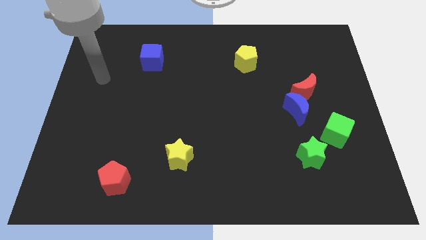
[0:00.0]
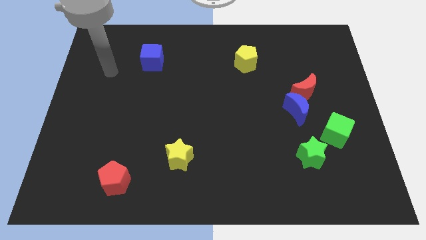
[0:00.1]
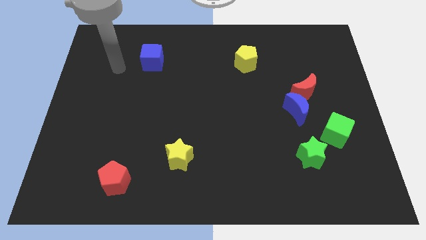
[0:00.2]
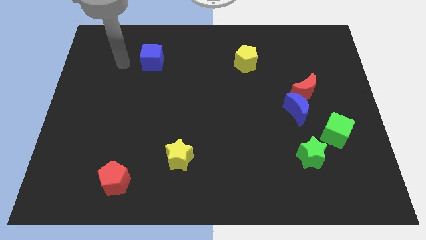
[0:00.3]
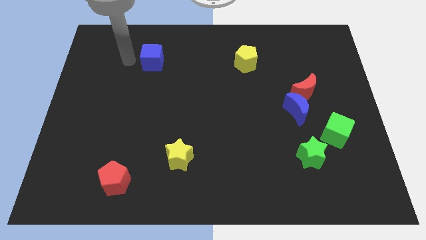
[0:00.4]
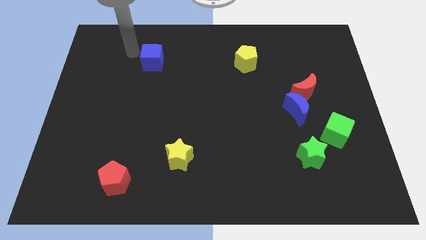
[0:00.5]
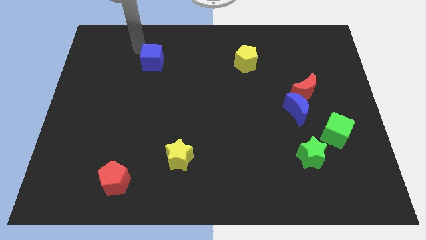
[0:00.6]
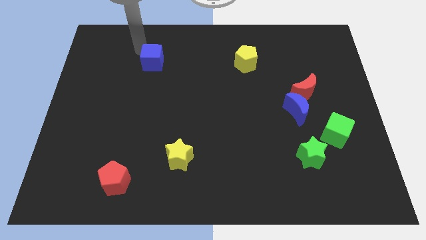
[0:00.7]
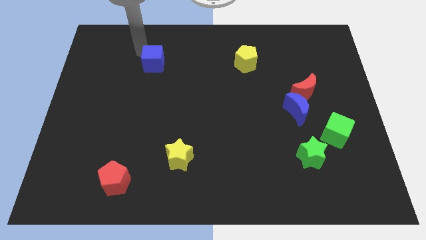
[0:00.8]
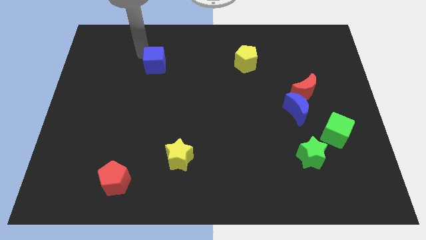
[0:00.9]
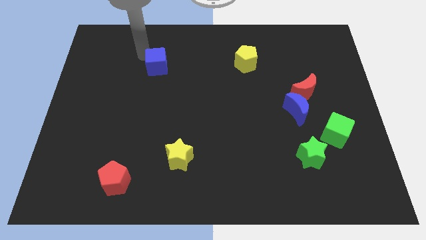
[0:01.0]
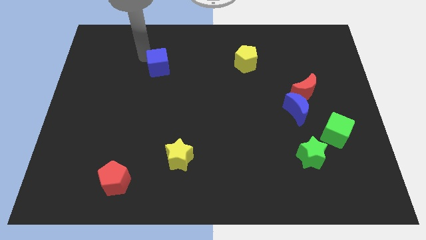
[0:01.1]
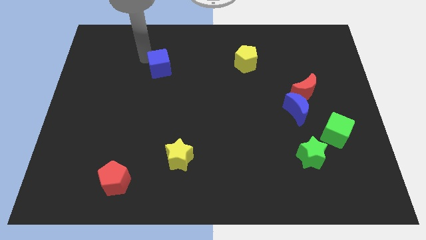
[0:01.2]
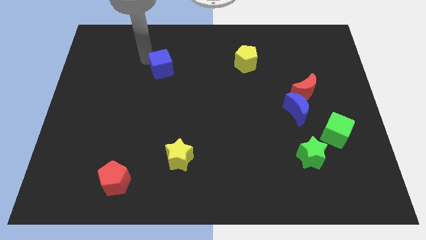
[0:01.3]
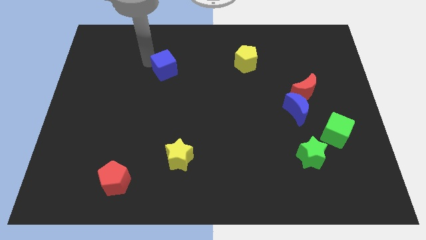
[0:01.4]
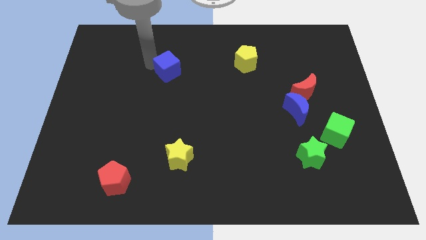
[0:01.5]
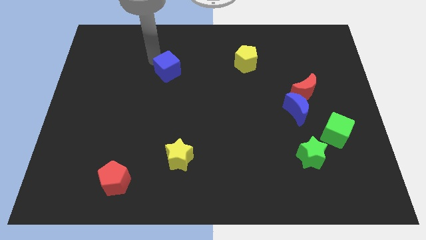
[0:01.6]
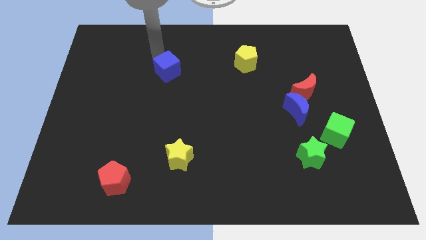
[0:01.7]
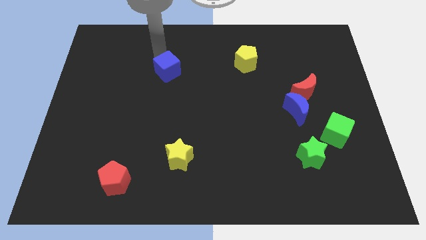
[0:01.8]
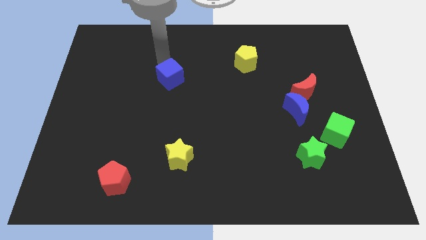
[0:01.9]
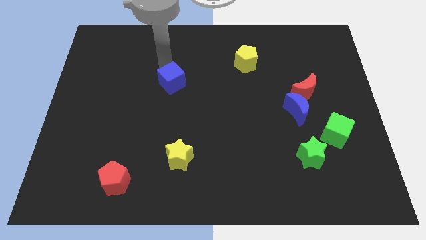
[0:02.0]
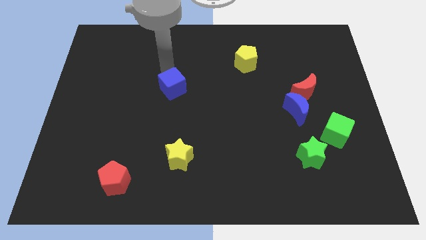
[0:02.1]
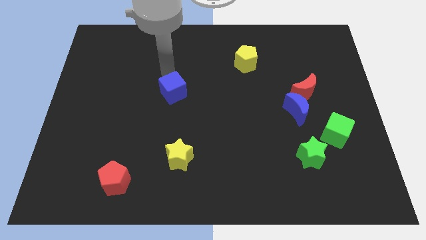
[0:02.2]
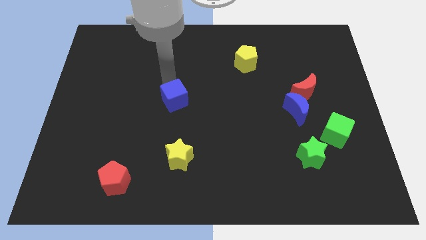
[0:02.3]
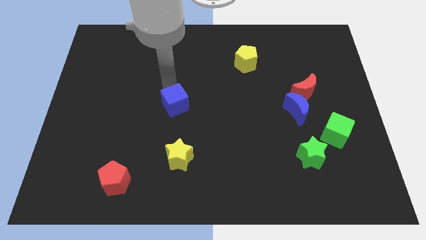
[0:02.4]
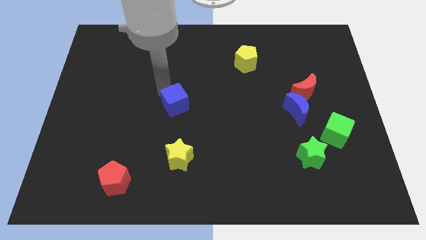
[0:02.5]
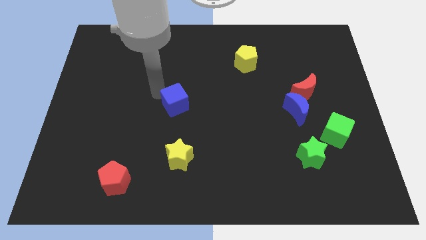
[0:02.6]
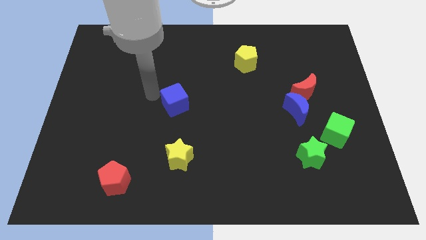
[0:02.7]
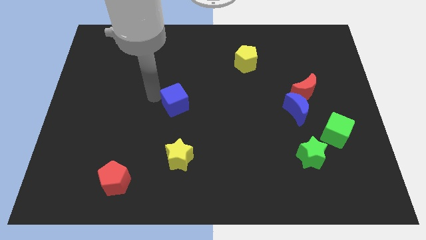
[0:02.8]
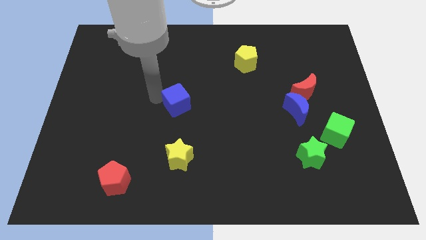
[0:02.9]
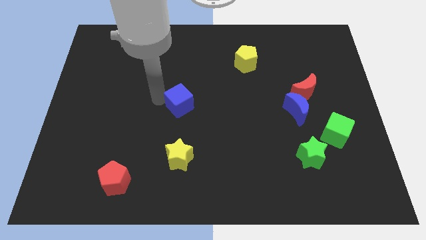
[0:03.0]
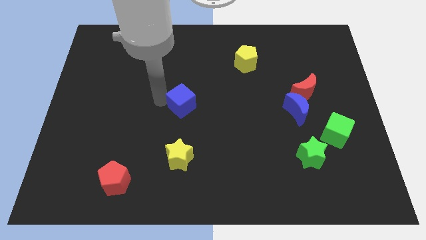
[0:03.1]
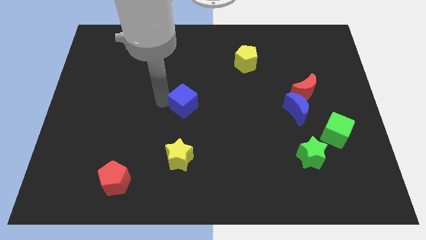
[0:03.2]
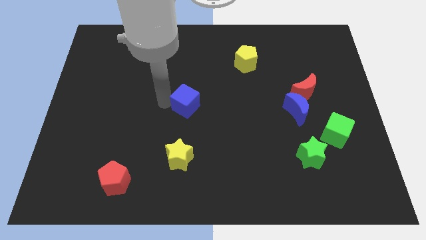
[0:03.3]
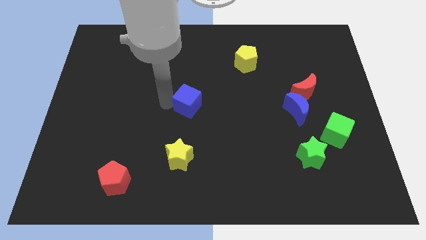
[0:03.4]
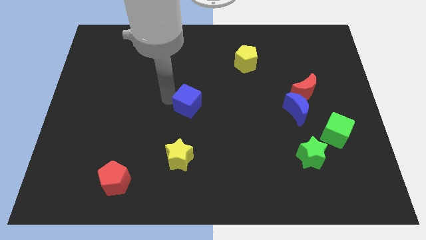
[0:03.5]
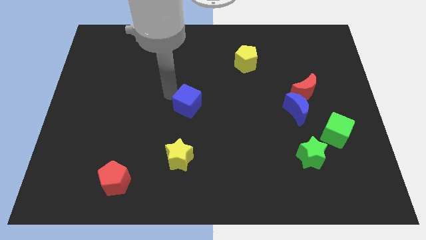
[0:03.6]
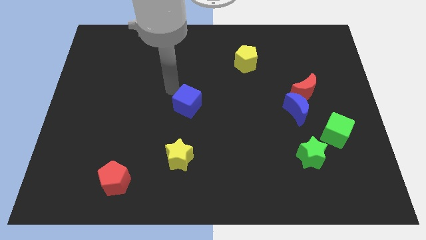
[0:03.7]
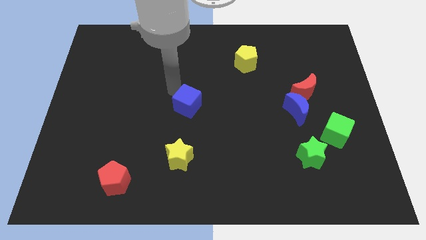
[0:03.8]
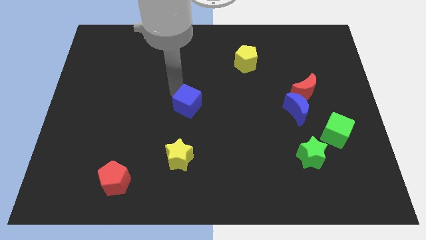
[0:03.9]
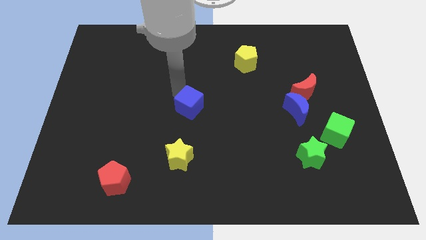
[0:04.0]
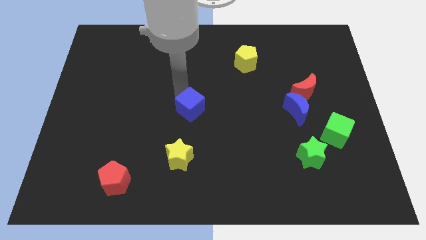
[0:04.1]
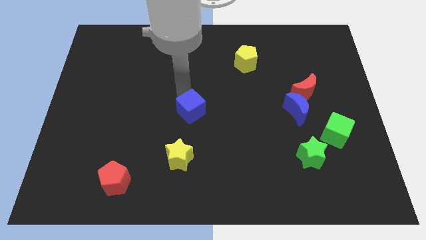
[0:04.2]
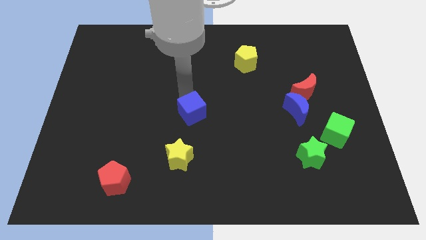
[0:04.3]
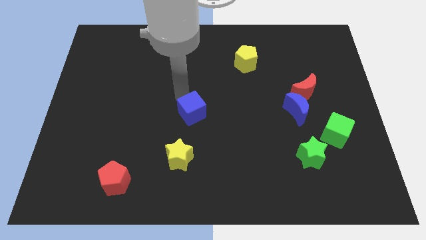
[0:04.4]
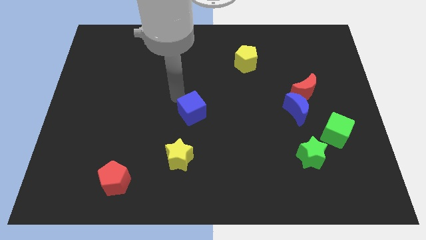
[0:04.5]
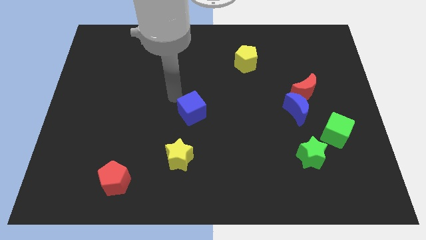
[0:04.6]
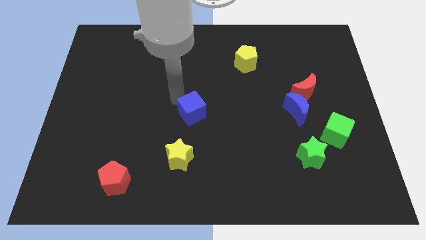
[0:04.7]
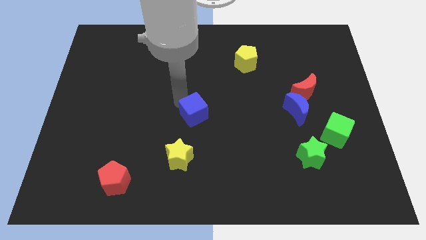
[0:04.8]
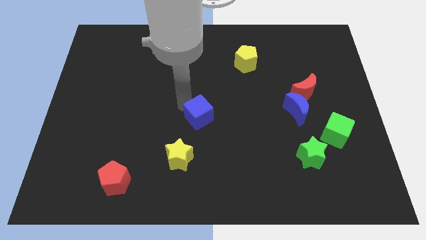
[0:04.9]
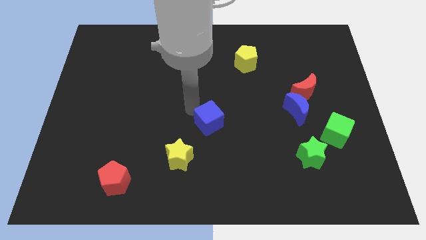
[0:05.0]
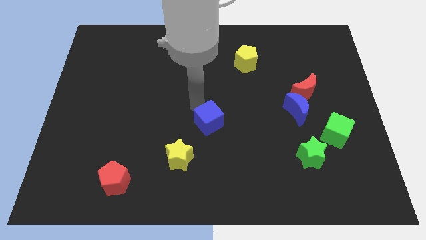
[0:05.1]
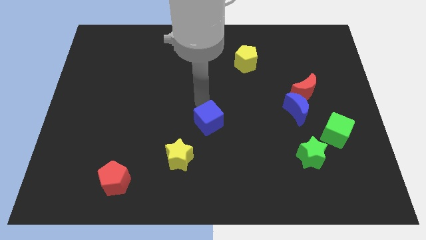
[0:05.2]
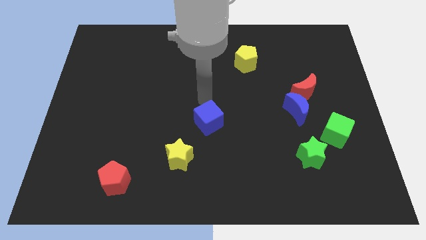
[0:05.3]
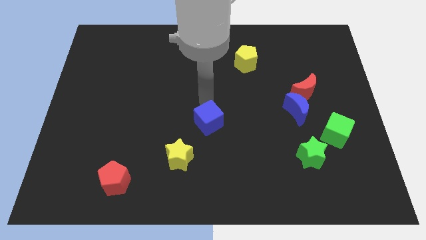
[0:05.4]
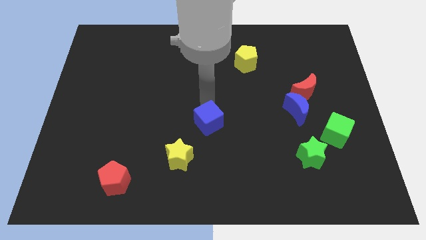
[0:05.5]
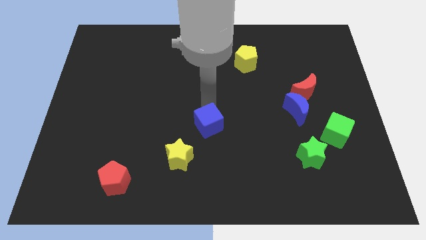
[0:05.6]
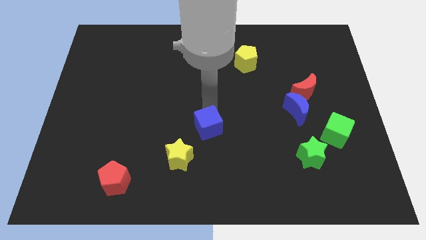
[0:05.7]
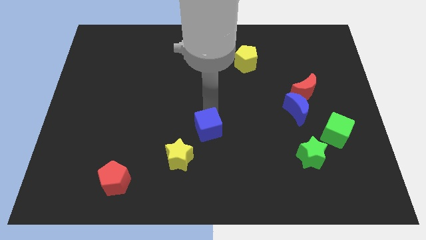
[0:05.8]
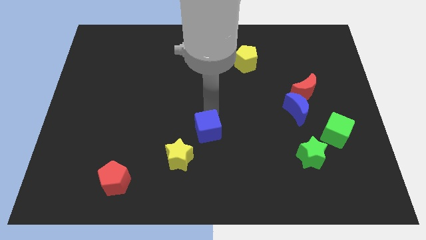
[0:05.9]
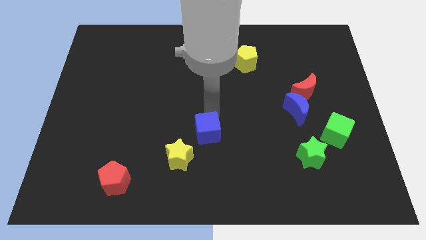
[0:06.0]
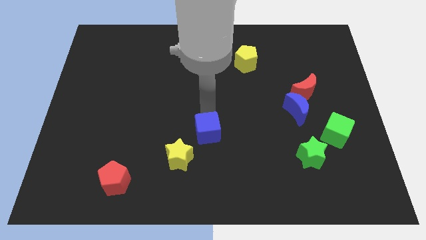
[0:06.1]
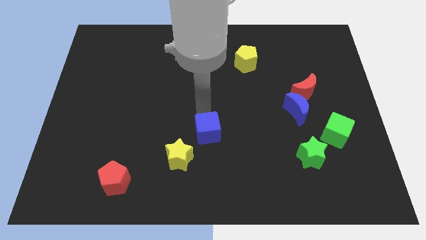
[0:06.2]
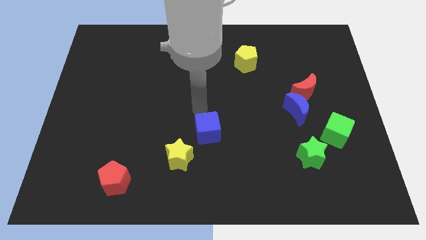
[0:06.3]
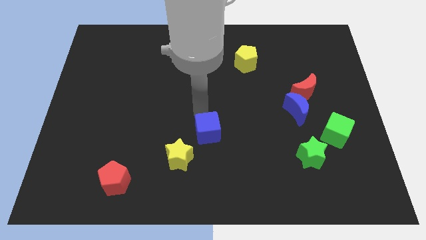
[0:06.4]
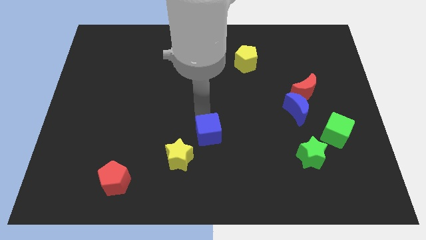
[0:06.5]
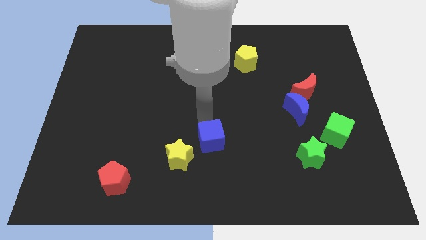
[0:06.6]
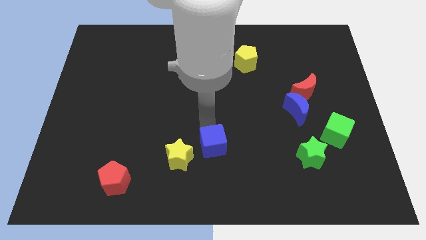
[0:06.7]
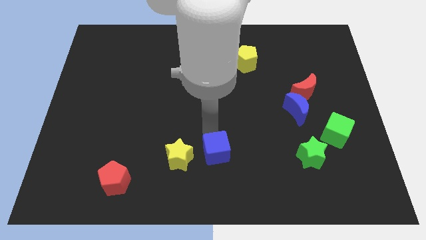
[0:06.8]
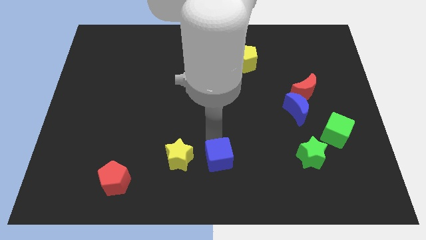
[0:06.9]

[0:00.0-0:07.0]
put the blue cube to the bottom

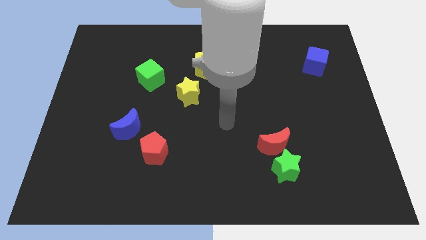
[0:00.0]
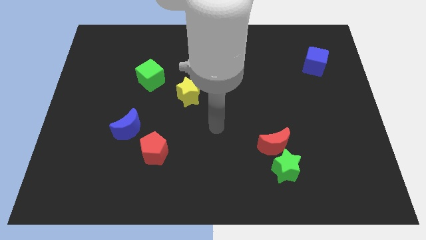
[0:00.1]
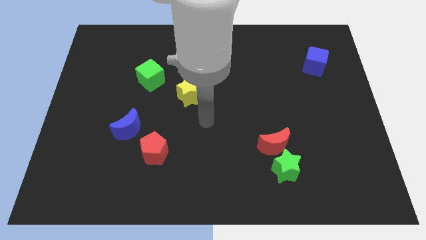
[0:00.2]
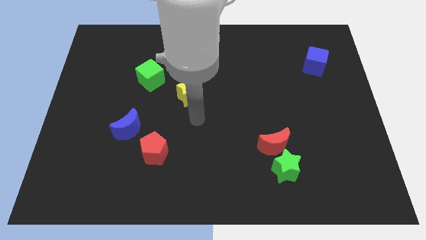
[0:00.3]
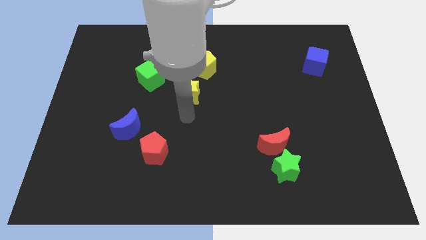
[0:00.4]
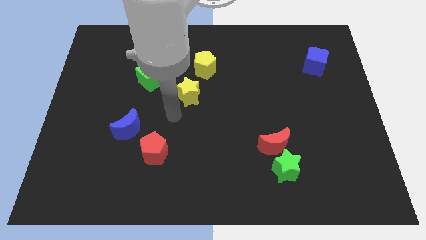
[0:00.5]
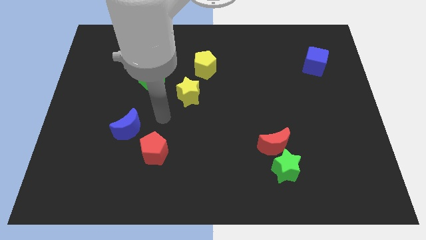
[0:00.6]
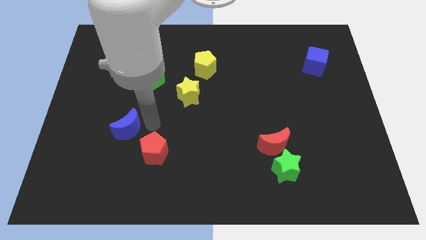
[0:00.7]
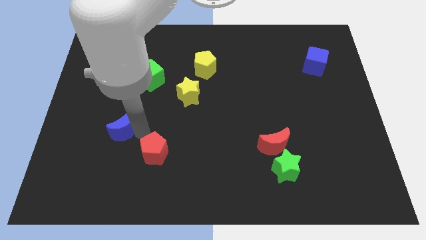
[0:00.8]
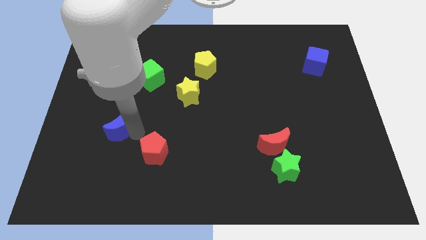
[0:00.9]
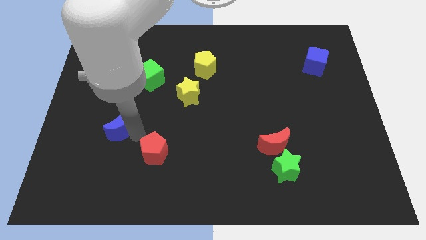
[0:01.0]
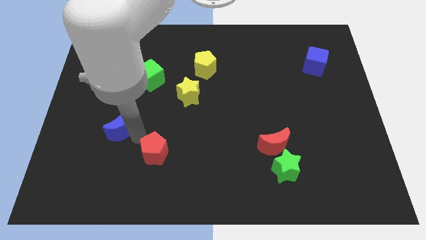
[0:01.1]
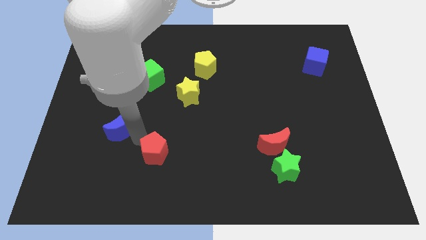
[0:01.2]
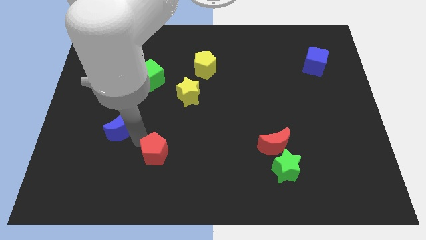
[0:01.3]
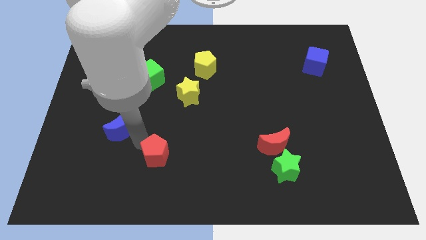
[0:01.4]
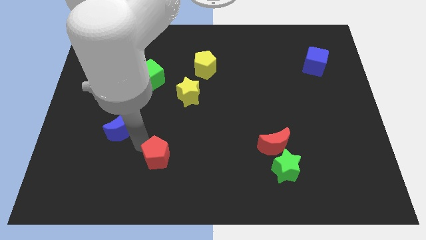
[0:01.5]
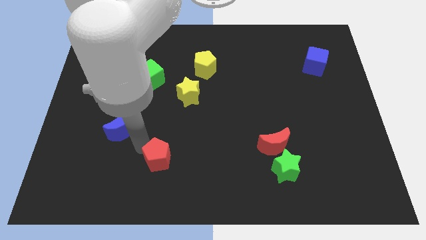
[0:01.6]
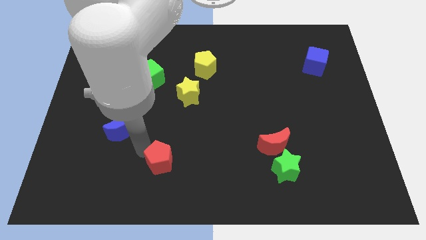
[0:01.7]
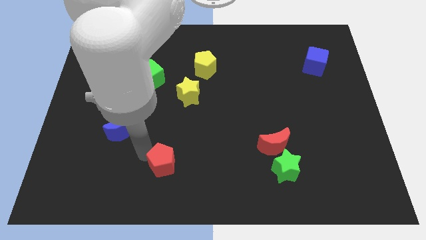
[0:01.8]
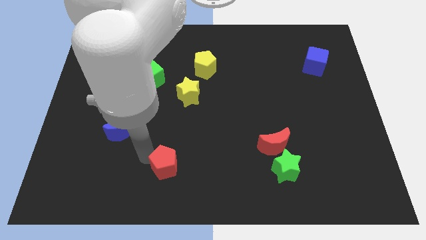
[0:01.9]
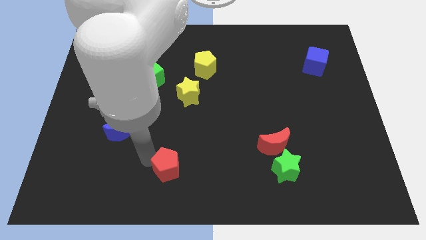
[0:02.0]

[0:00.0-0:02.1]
put the red pentagon to the bottom
